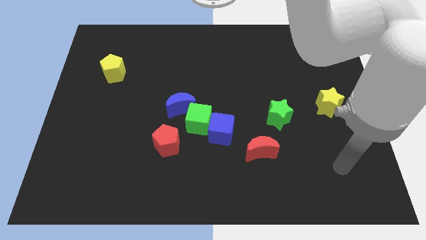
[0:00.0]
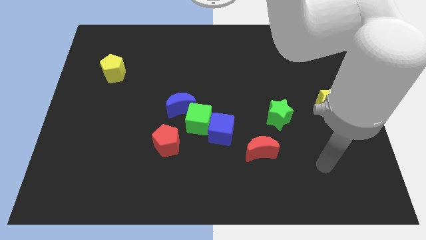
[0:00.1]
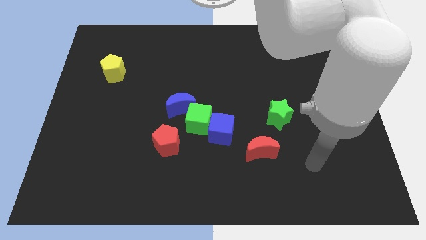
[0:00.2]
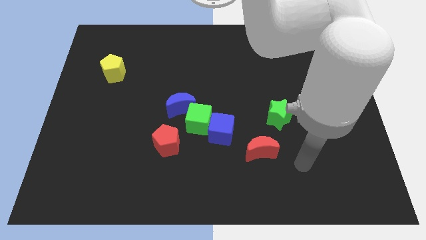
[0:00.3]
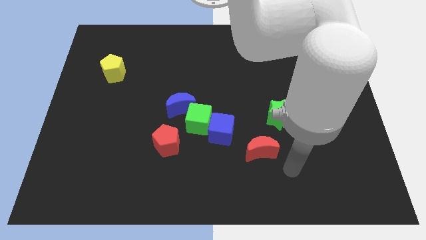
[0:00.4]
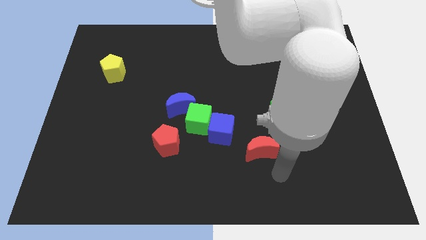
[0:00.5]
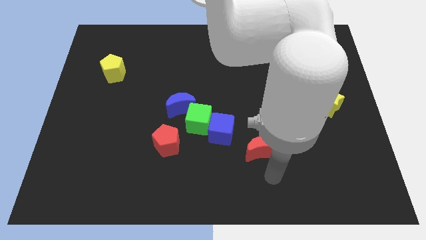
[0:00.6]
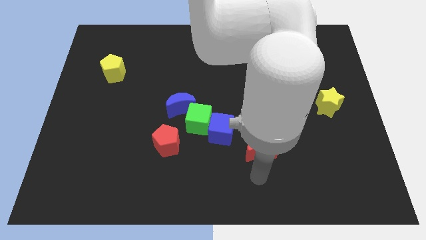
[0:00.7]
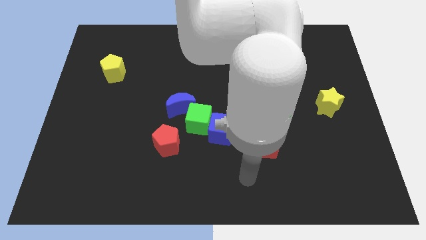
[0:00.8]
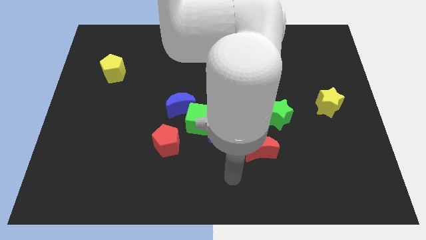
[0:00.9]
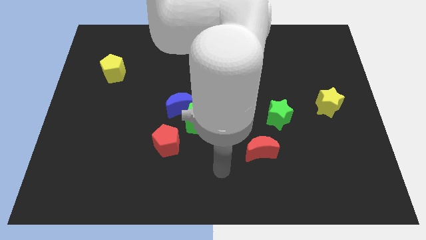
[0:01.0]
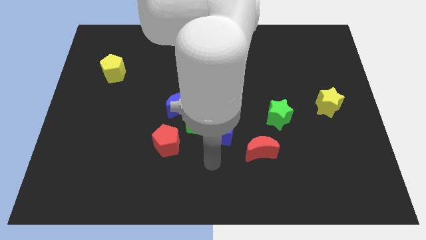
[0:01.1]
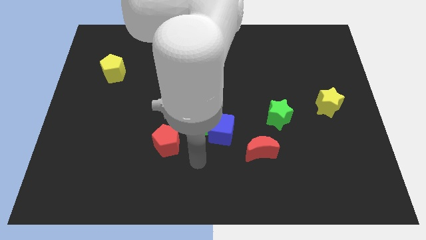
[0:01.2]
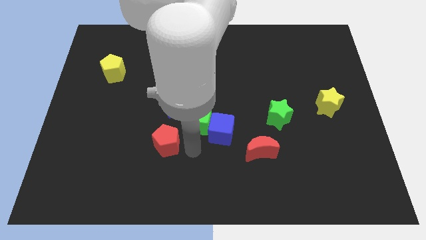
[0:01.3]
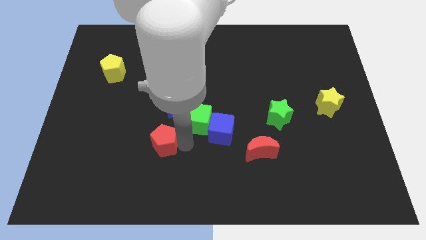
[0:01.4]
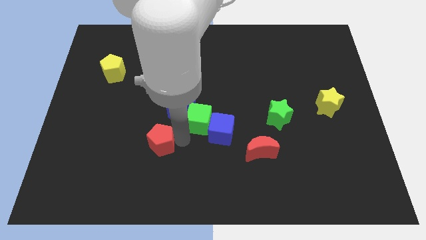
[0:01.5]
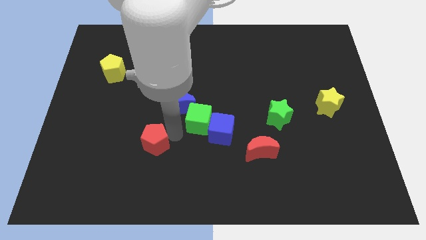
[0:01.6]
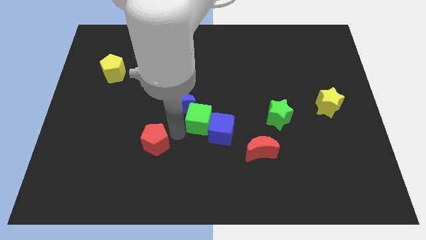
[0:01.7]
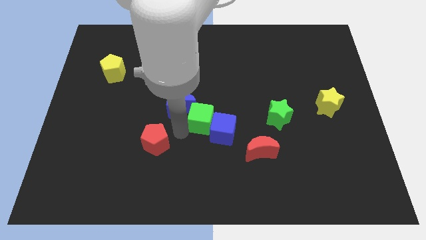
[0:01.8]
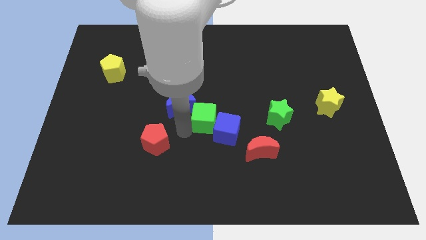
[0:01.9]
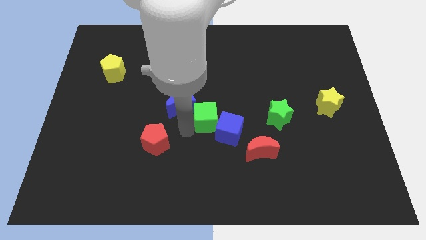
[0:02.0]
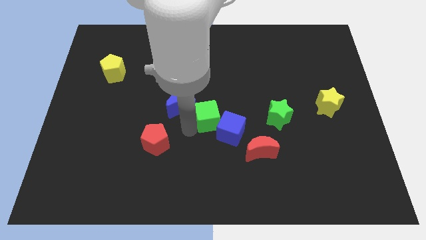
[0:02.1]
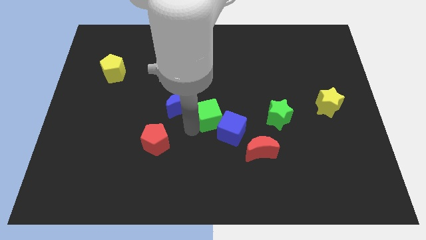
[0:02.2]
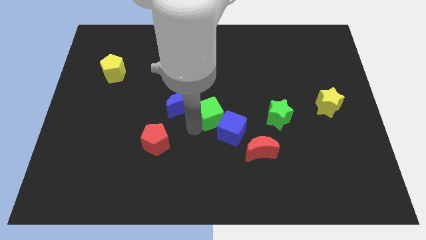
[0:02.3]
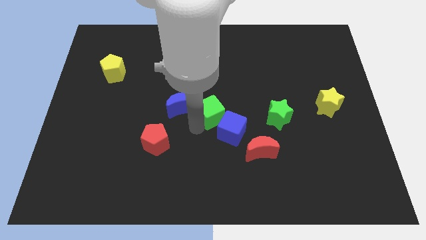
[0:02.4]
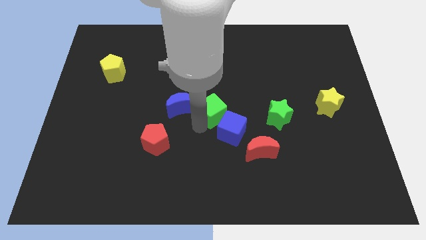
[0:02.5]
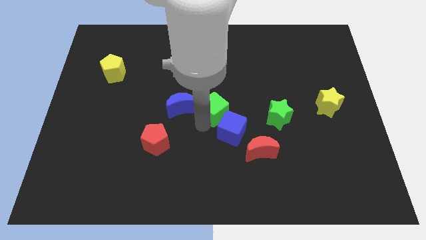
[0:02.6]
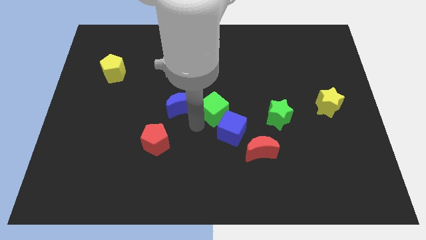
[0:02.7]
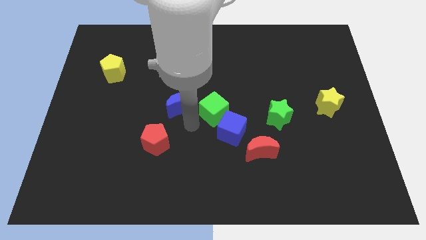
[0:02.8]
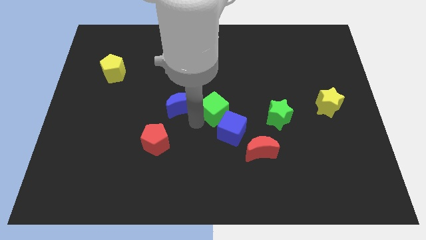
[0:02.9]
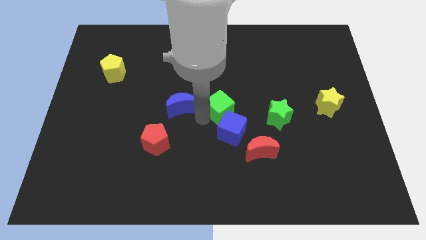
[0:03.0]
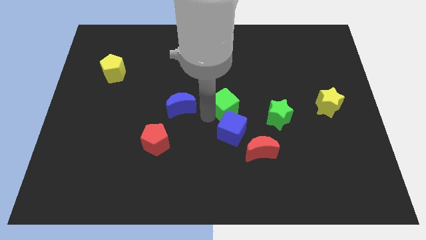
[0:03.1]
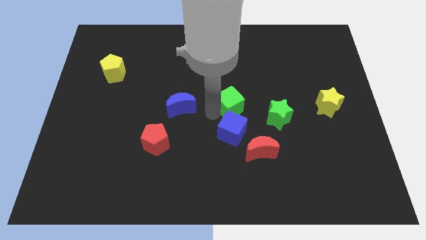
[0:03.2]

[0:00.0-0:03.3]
move the green cube away from the group of blocks

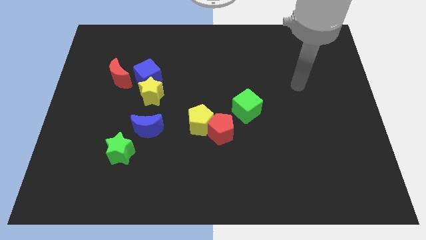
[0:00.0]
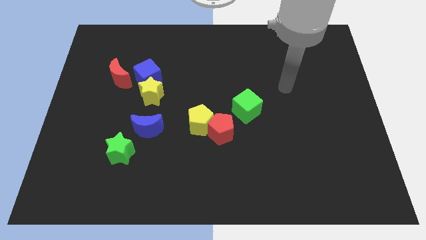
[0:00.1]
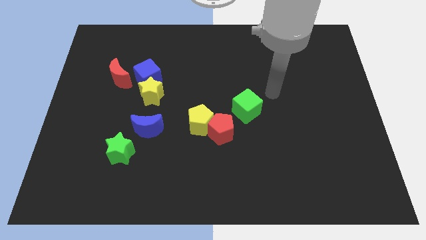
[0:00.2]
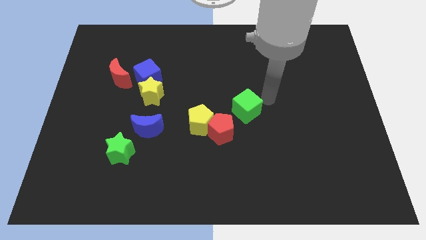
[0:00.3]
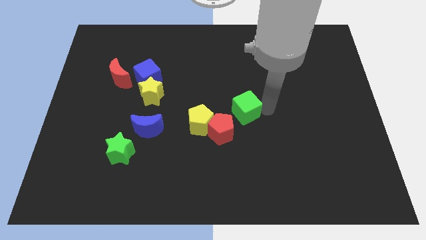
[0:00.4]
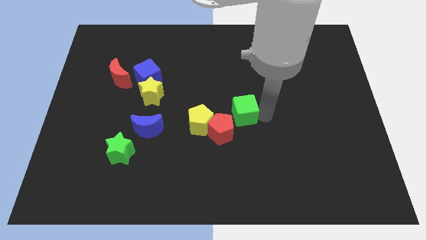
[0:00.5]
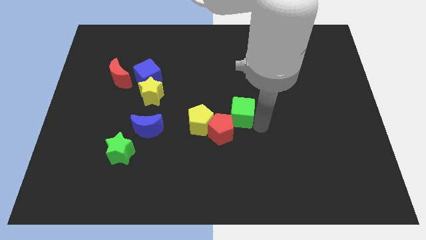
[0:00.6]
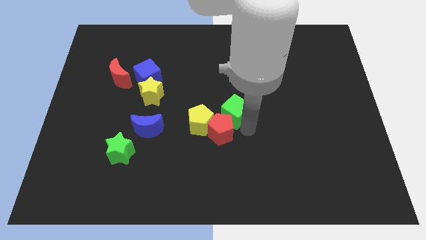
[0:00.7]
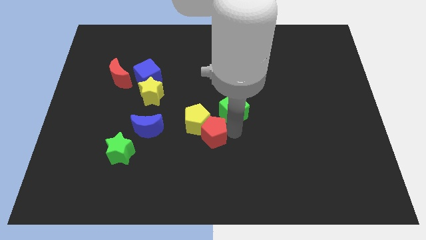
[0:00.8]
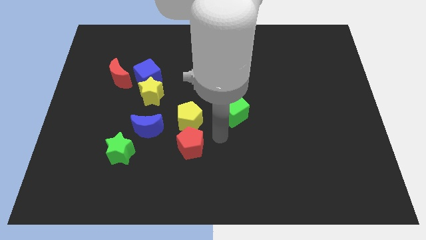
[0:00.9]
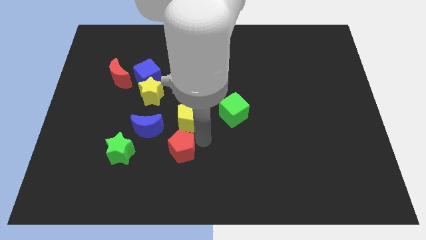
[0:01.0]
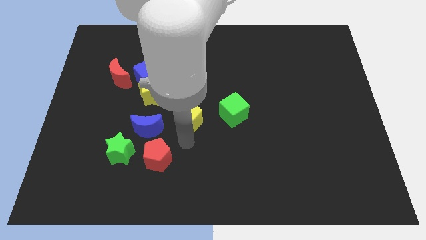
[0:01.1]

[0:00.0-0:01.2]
separate the yellow pentagon from the red pentagon

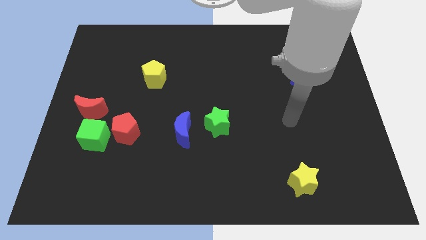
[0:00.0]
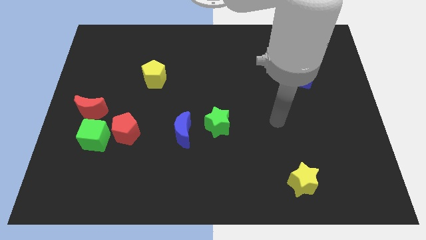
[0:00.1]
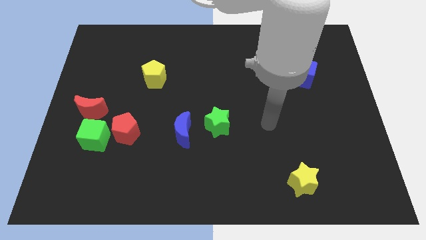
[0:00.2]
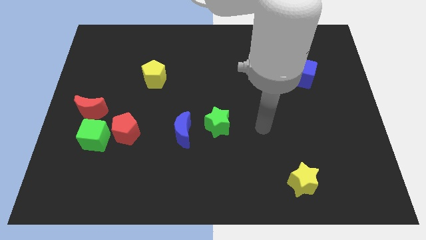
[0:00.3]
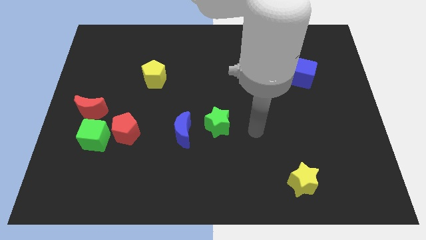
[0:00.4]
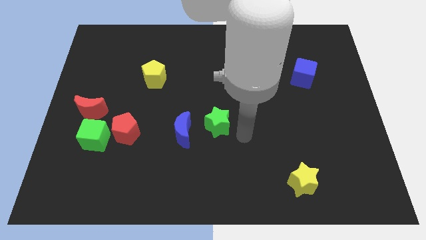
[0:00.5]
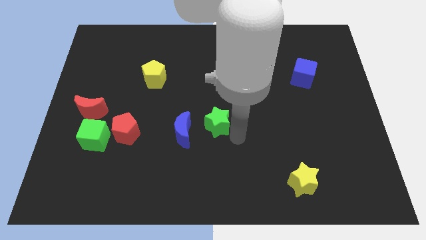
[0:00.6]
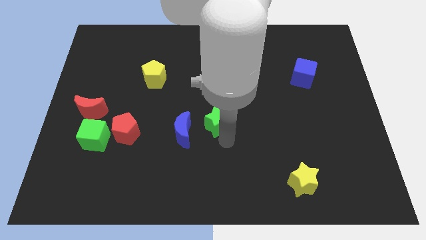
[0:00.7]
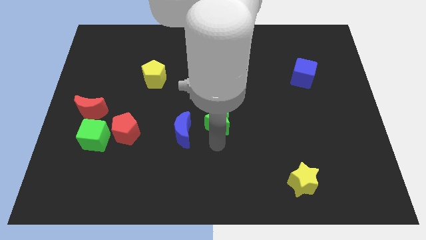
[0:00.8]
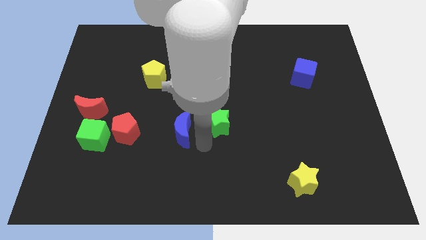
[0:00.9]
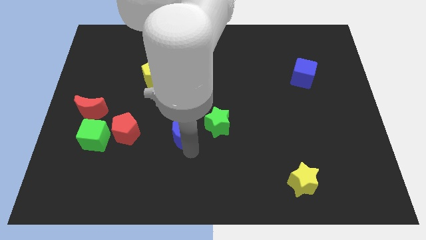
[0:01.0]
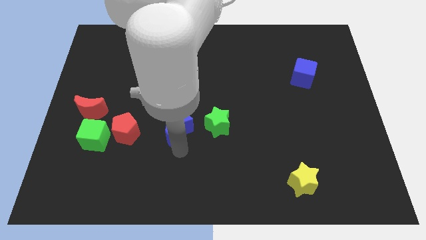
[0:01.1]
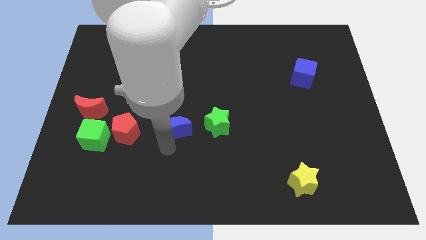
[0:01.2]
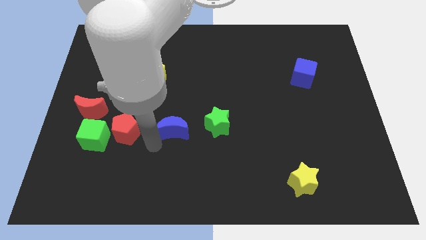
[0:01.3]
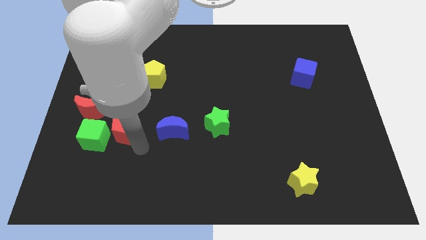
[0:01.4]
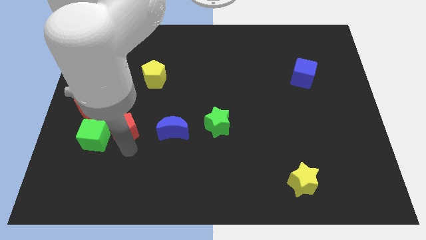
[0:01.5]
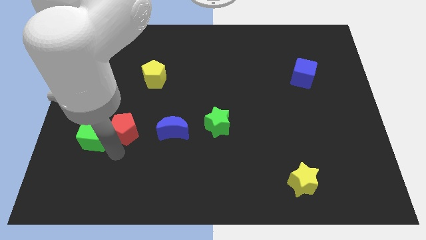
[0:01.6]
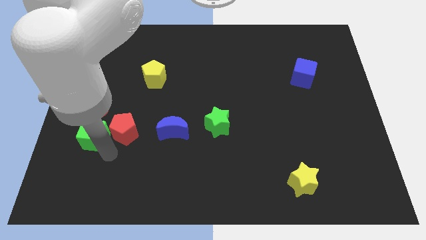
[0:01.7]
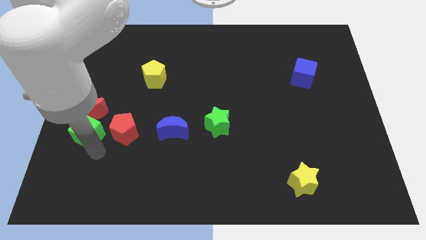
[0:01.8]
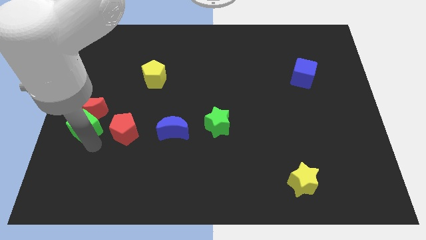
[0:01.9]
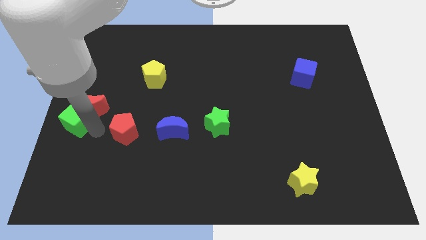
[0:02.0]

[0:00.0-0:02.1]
move the red pentagon away from the green cube

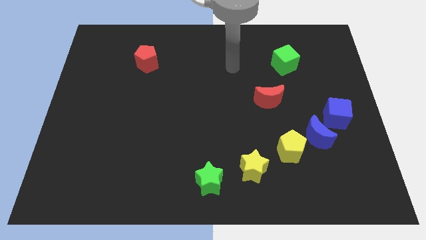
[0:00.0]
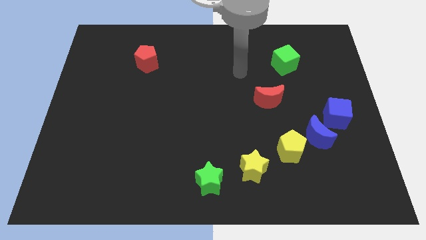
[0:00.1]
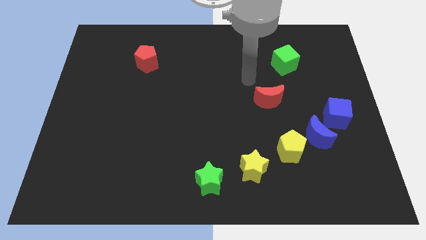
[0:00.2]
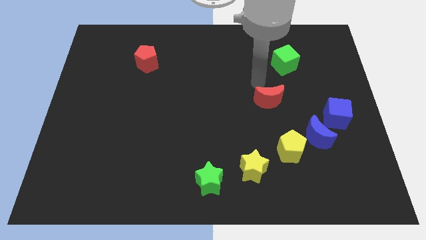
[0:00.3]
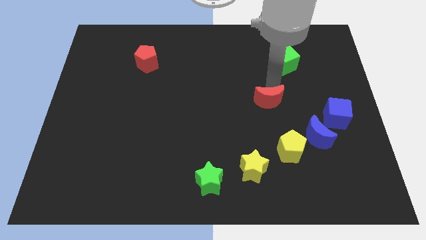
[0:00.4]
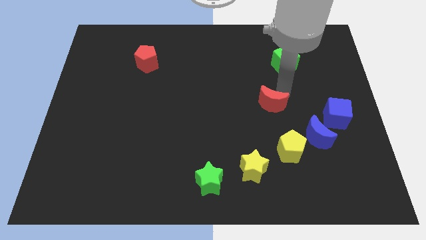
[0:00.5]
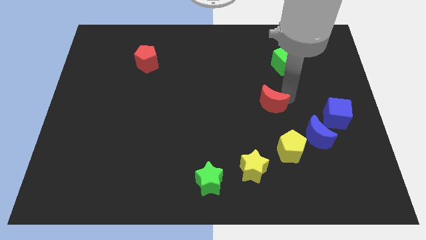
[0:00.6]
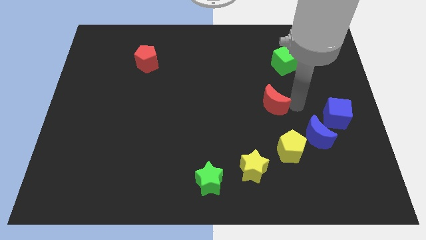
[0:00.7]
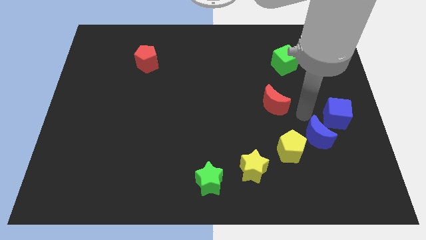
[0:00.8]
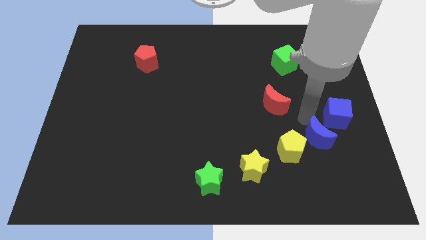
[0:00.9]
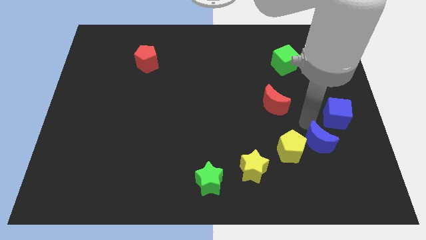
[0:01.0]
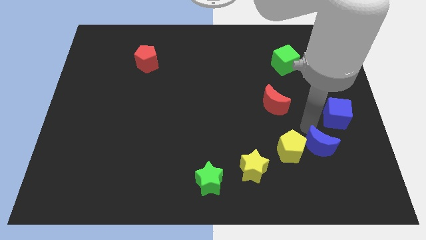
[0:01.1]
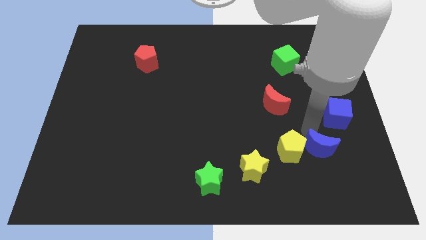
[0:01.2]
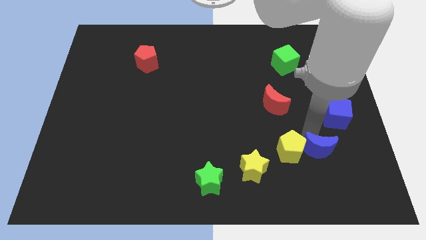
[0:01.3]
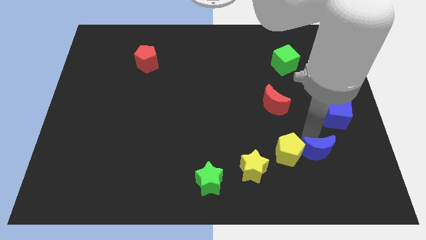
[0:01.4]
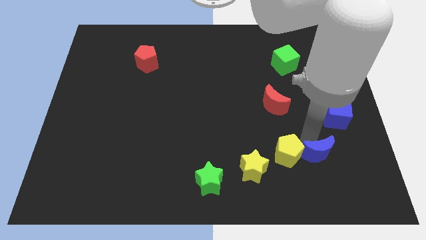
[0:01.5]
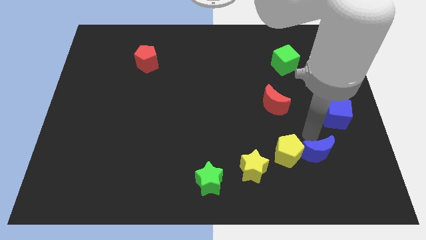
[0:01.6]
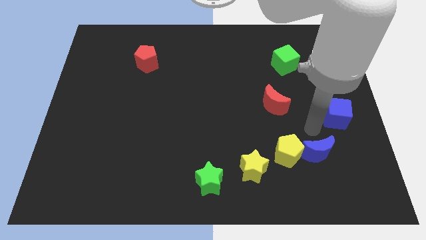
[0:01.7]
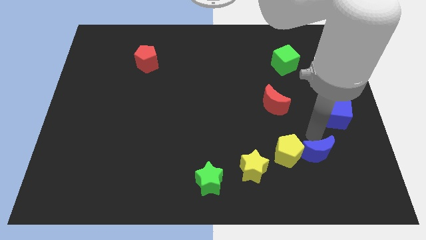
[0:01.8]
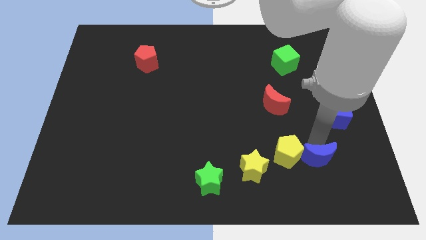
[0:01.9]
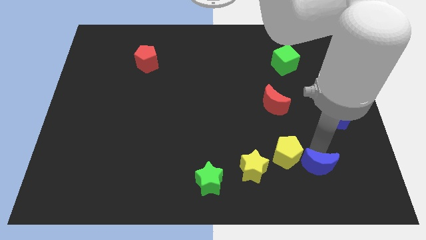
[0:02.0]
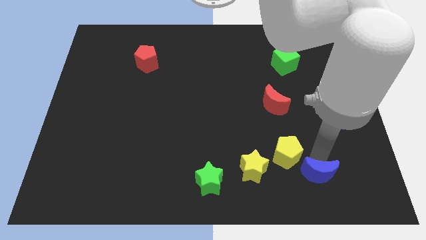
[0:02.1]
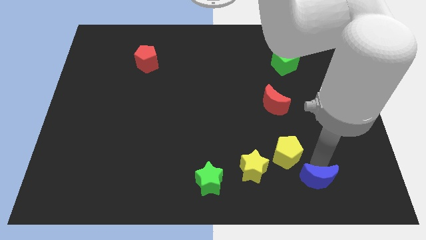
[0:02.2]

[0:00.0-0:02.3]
move the blue moon away from the yellow pentagon and blue cube

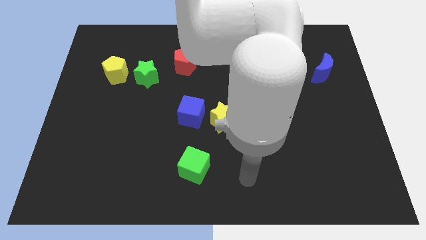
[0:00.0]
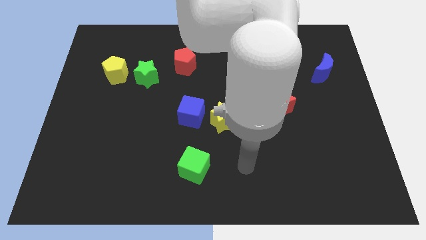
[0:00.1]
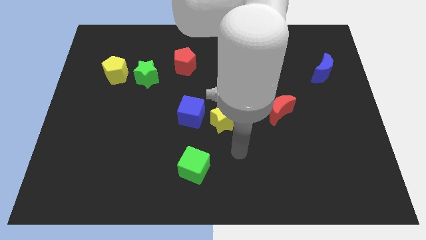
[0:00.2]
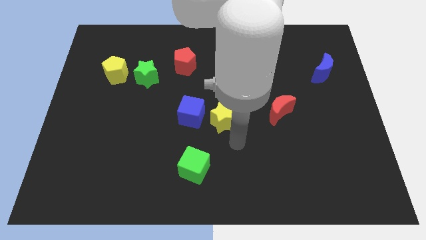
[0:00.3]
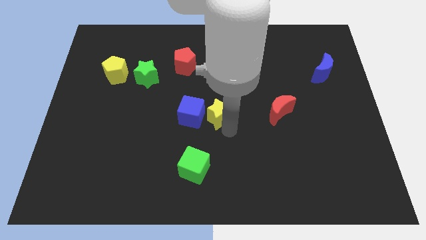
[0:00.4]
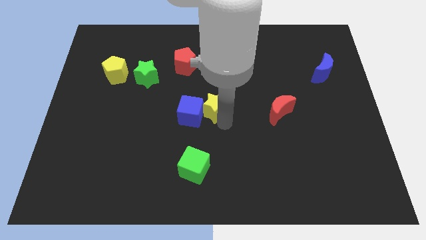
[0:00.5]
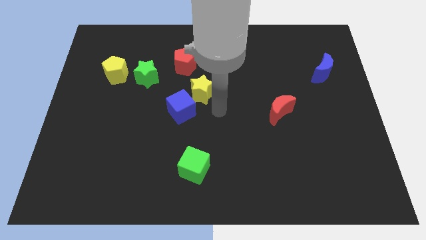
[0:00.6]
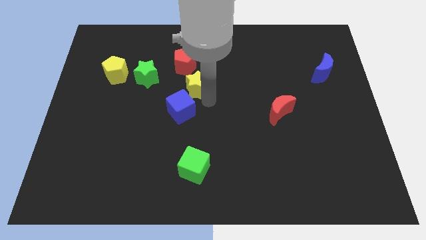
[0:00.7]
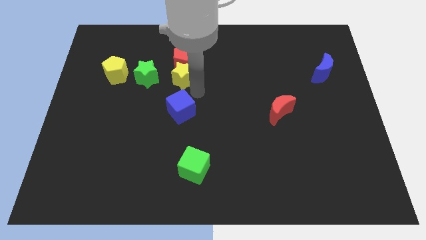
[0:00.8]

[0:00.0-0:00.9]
move the blue cube away from the yellow star
